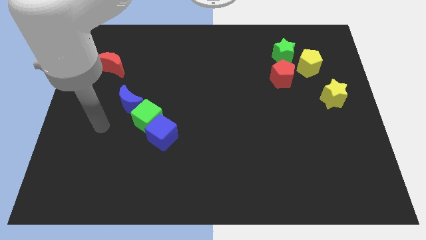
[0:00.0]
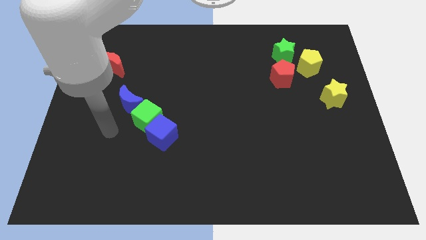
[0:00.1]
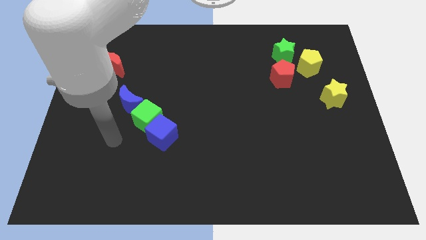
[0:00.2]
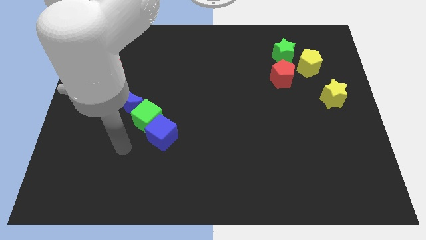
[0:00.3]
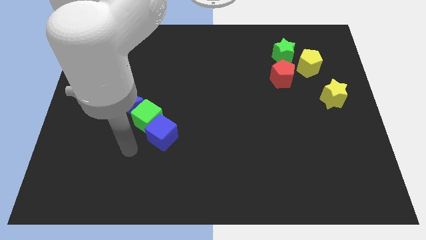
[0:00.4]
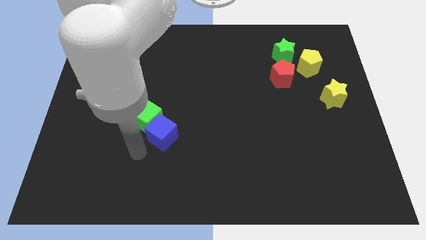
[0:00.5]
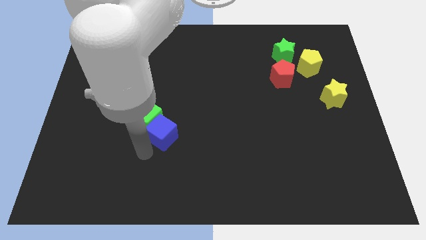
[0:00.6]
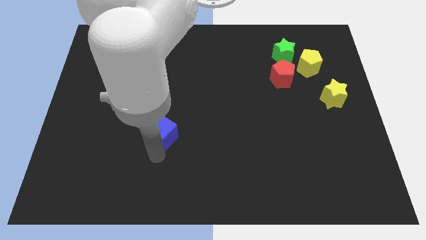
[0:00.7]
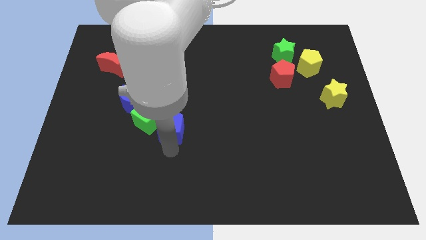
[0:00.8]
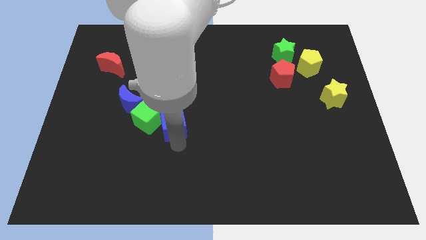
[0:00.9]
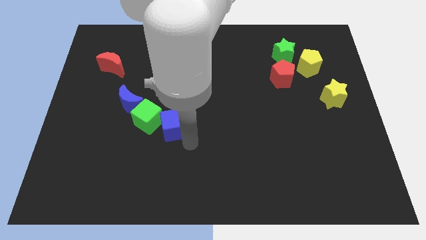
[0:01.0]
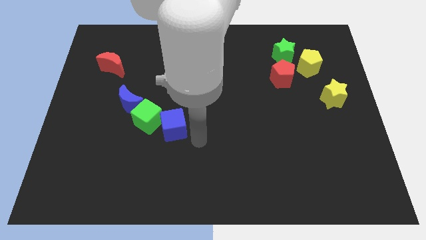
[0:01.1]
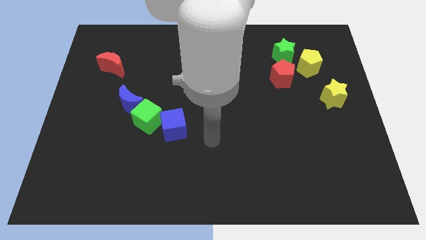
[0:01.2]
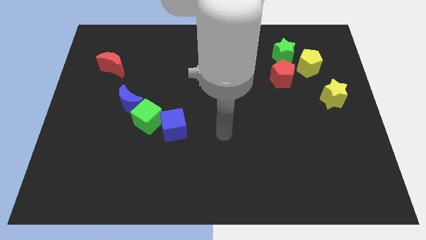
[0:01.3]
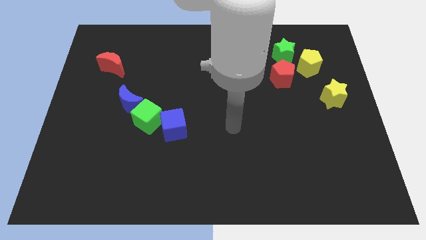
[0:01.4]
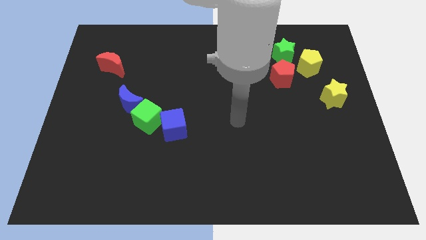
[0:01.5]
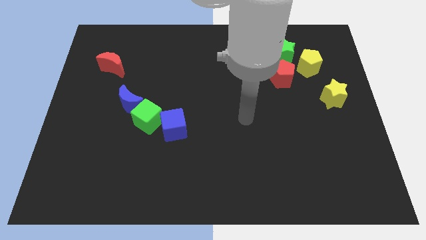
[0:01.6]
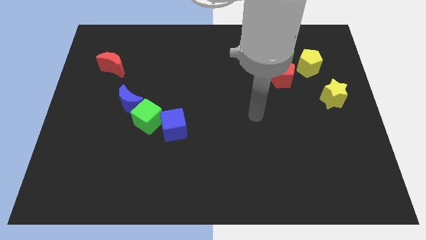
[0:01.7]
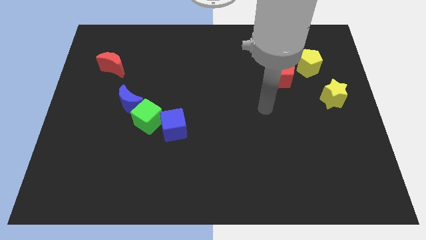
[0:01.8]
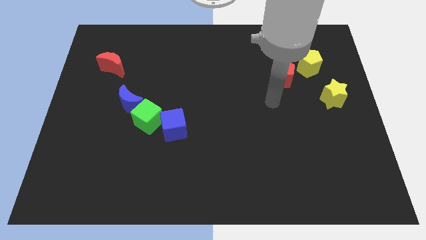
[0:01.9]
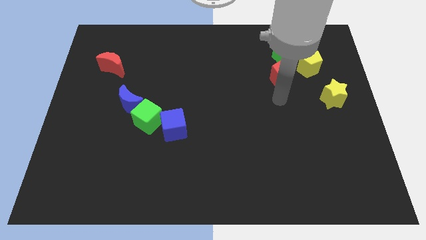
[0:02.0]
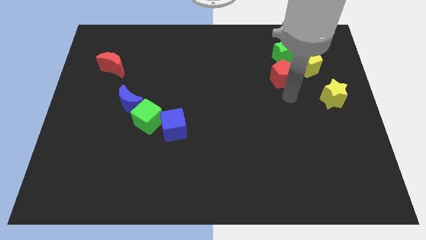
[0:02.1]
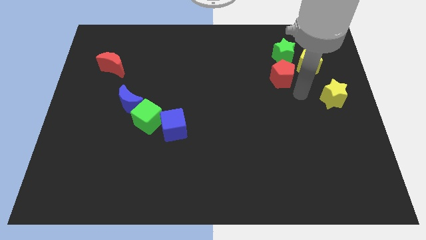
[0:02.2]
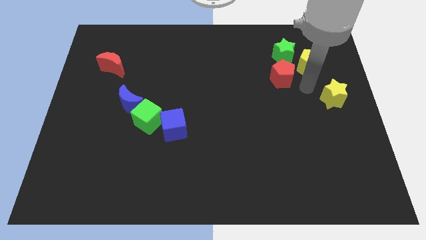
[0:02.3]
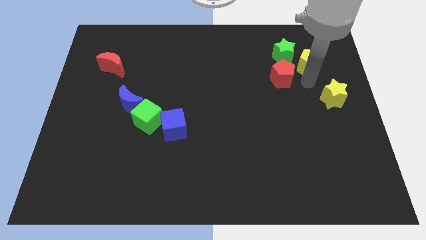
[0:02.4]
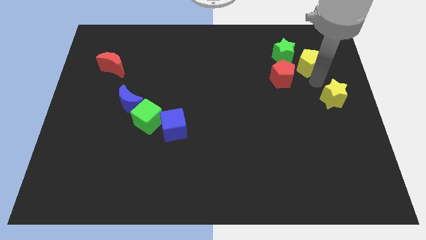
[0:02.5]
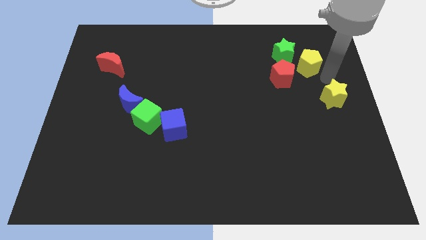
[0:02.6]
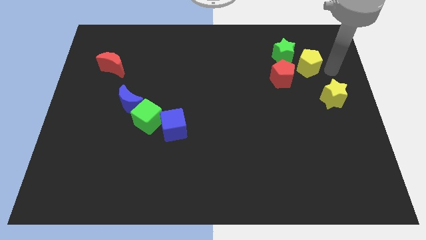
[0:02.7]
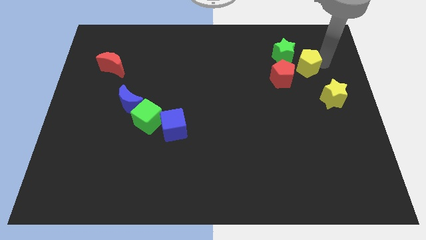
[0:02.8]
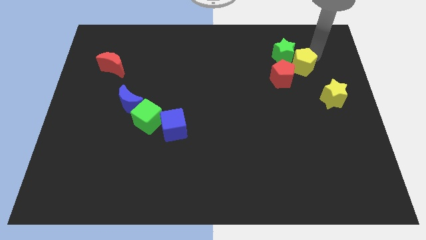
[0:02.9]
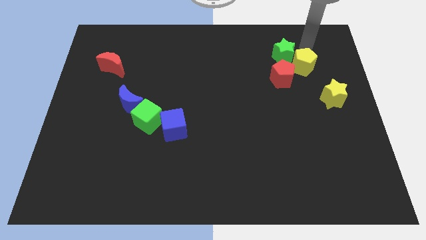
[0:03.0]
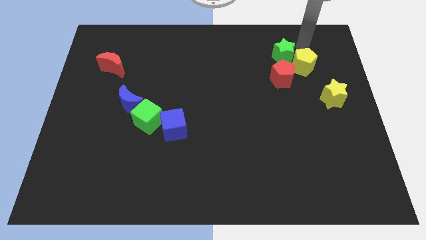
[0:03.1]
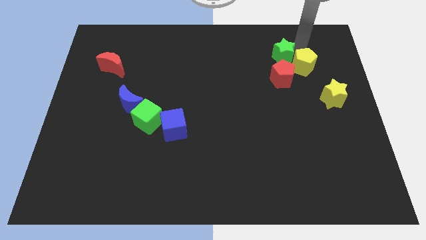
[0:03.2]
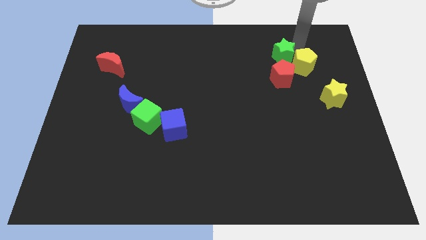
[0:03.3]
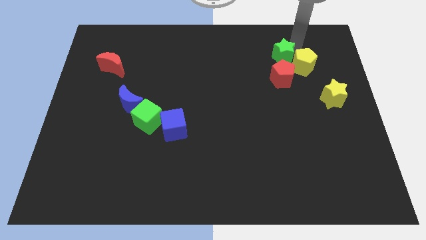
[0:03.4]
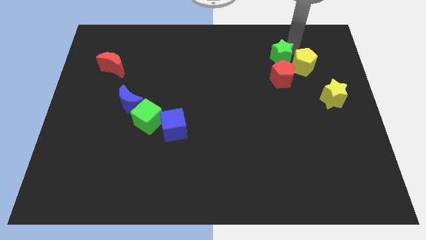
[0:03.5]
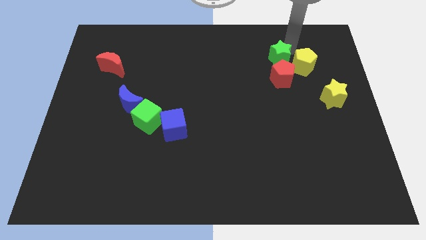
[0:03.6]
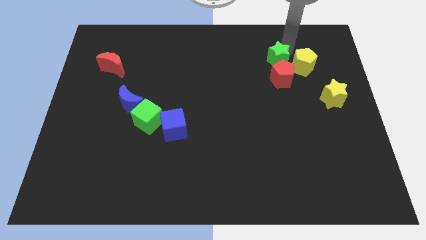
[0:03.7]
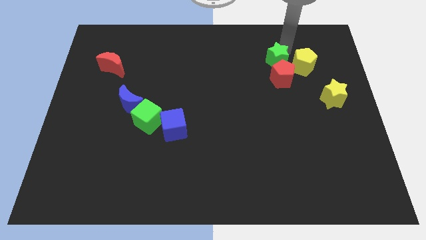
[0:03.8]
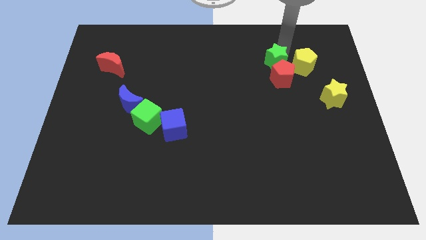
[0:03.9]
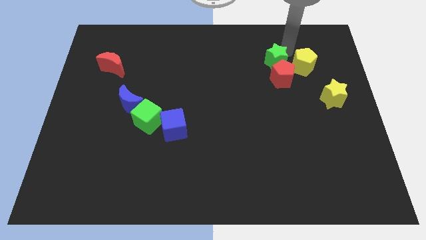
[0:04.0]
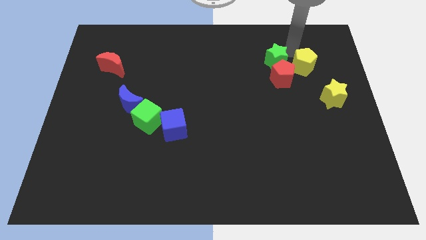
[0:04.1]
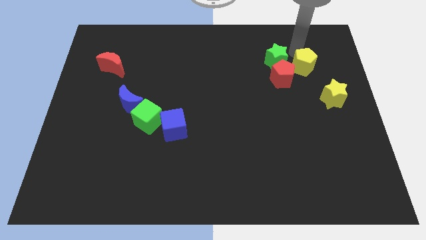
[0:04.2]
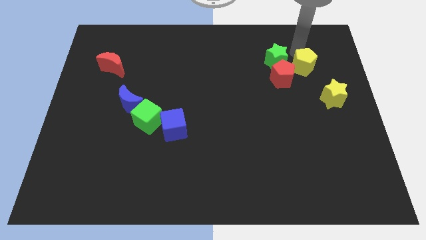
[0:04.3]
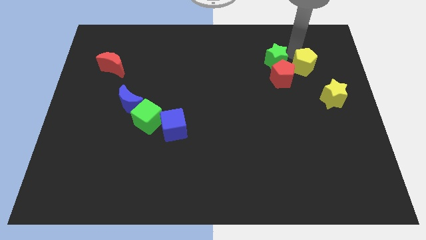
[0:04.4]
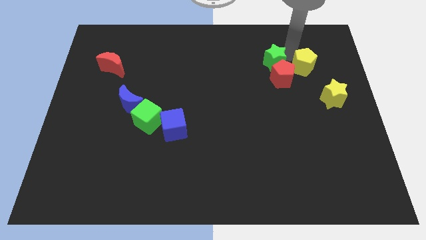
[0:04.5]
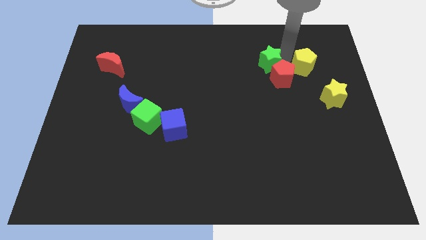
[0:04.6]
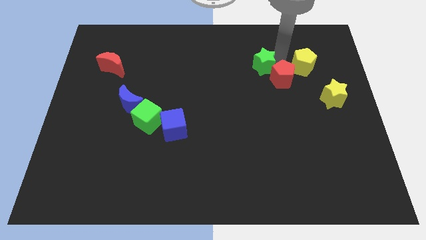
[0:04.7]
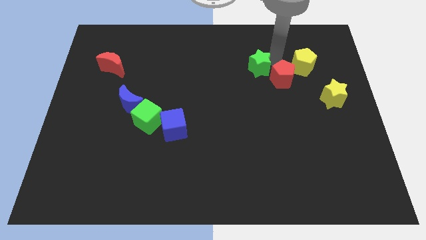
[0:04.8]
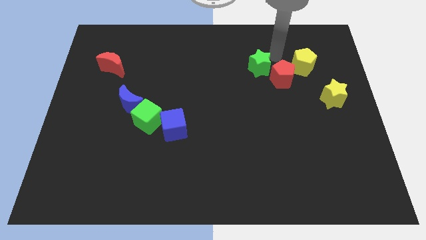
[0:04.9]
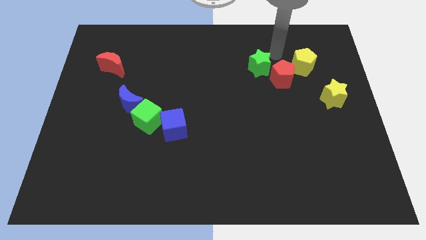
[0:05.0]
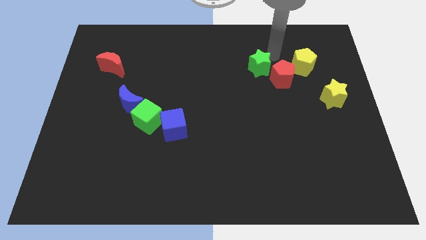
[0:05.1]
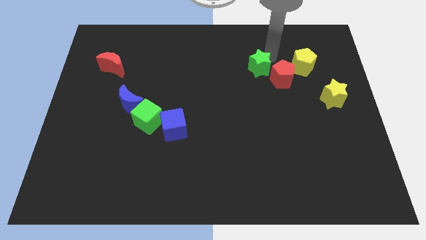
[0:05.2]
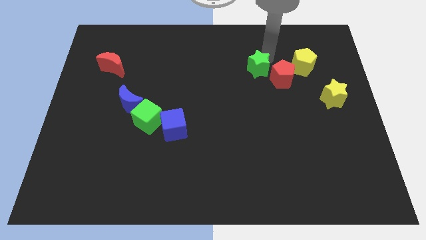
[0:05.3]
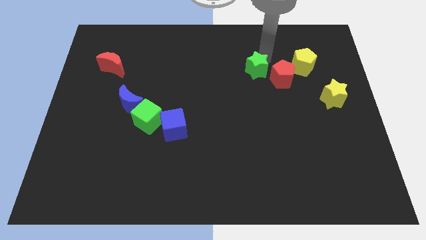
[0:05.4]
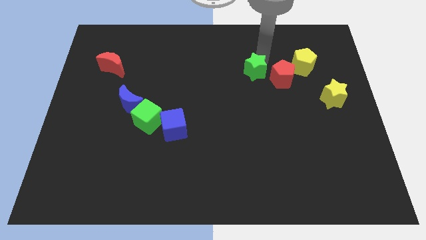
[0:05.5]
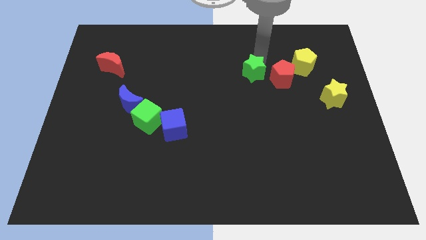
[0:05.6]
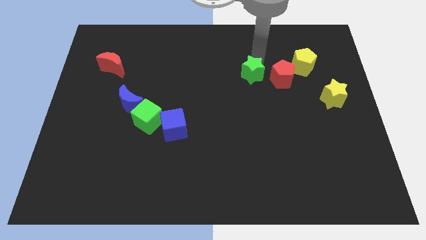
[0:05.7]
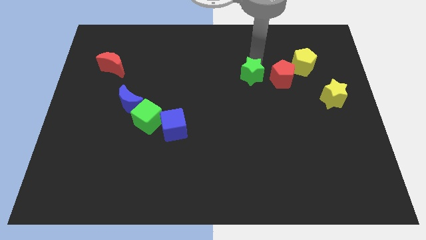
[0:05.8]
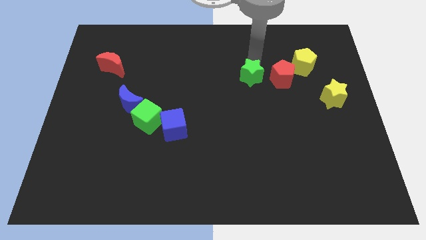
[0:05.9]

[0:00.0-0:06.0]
push the green star to the center

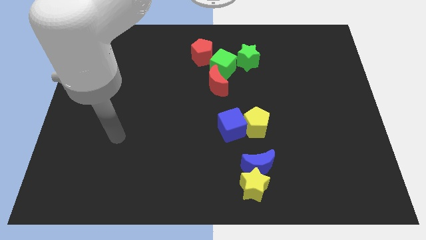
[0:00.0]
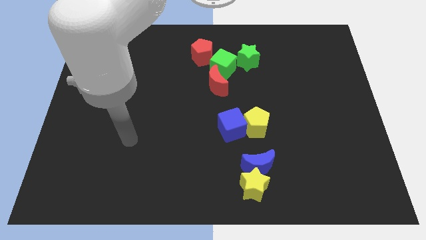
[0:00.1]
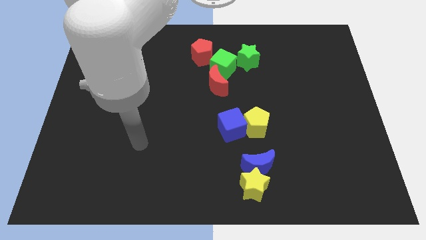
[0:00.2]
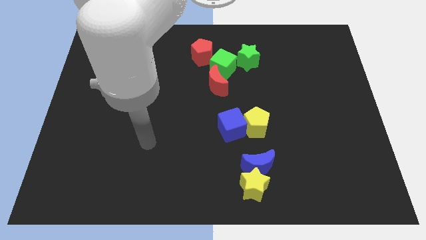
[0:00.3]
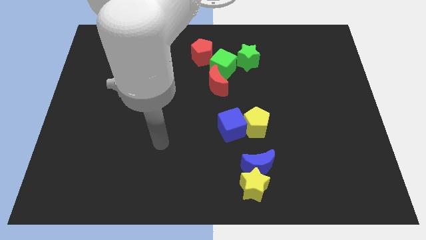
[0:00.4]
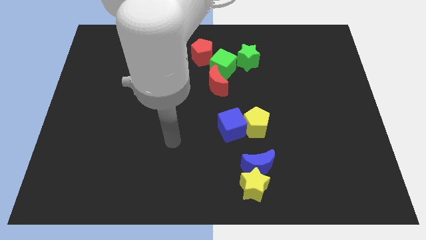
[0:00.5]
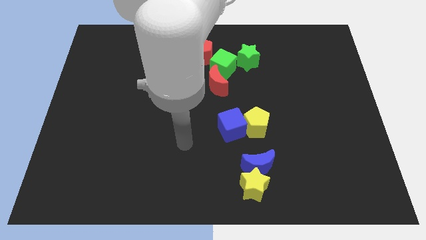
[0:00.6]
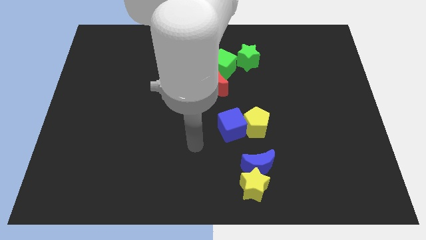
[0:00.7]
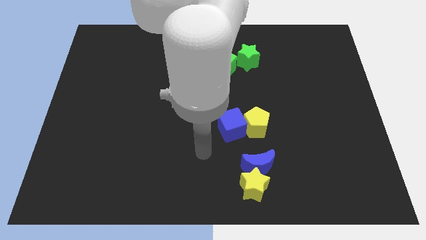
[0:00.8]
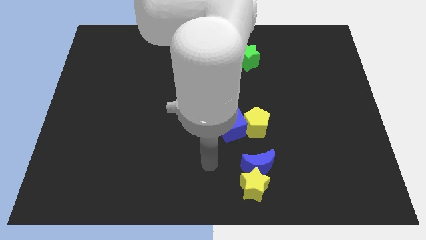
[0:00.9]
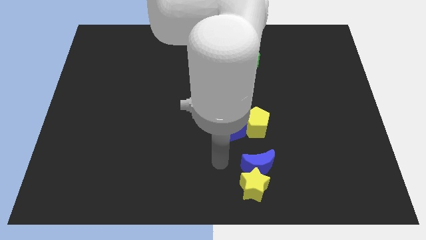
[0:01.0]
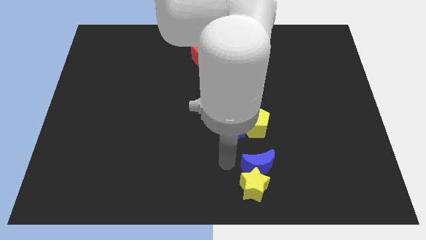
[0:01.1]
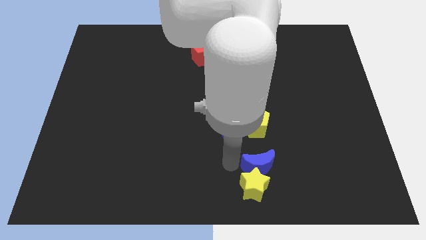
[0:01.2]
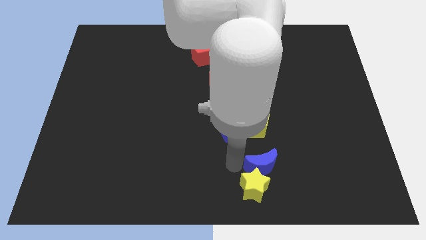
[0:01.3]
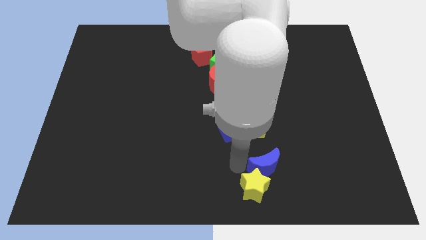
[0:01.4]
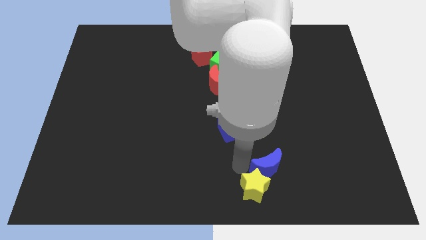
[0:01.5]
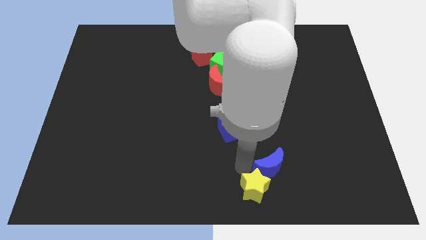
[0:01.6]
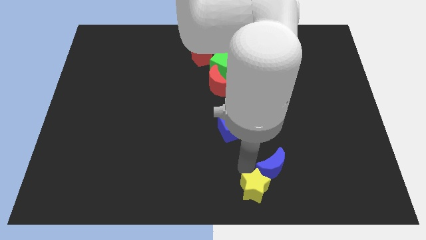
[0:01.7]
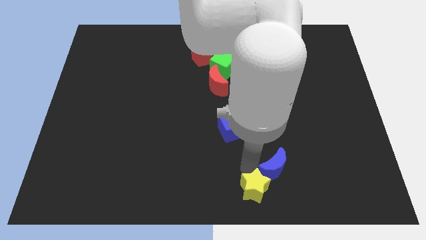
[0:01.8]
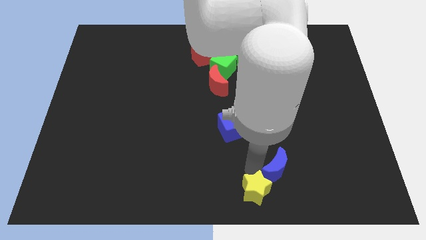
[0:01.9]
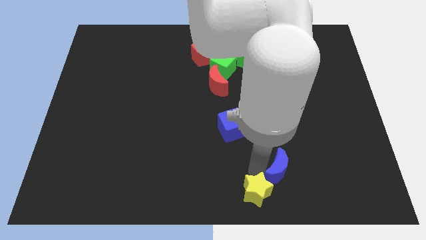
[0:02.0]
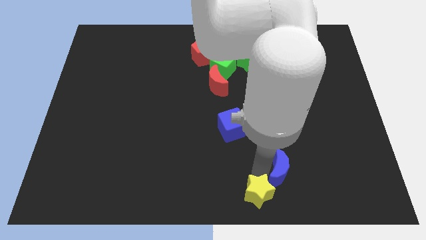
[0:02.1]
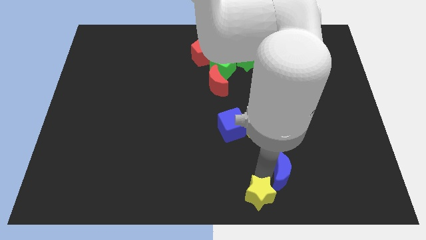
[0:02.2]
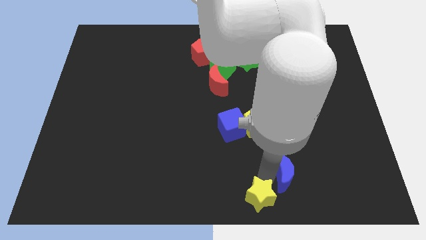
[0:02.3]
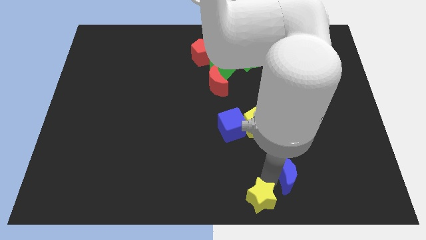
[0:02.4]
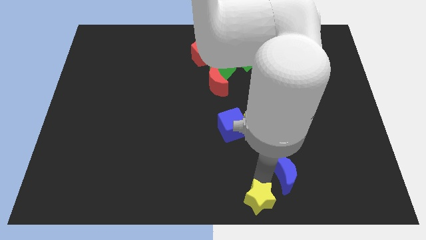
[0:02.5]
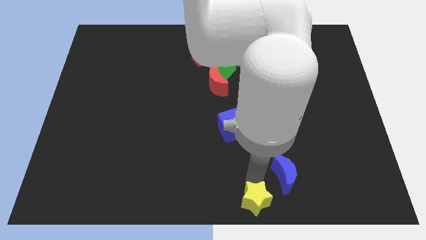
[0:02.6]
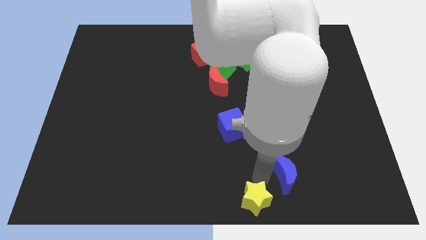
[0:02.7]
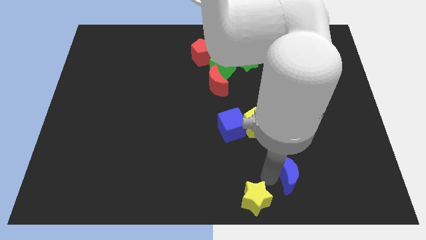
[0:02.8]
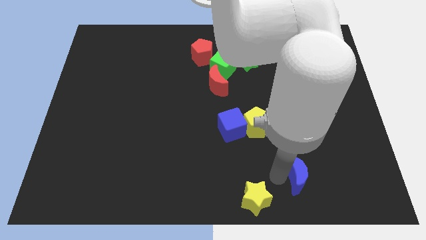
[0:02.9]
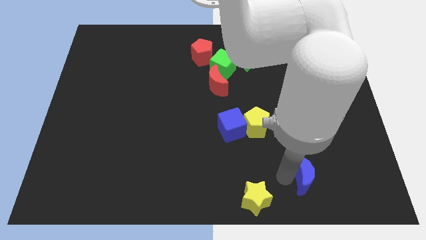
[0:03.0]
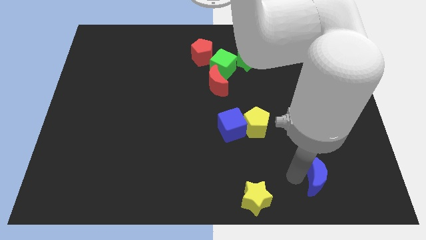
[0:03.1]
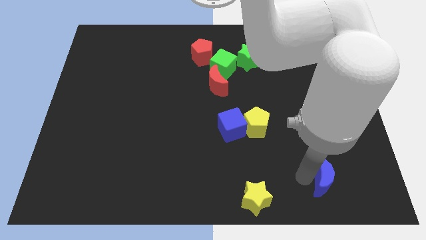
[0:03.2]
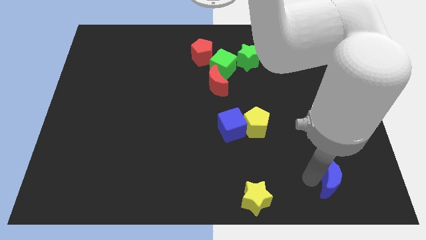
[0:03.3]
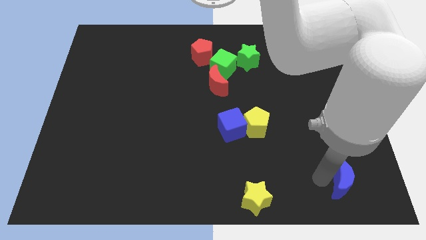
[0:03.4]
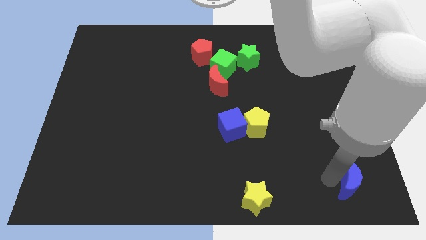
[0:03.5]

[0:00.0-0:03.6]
push the blue moon to the bottom right
